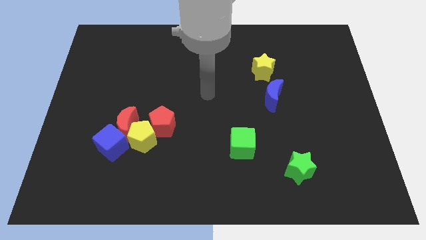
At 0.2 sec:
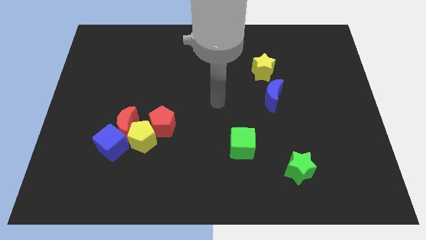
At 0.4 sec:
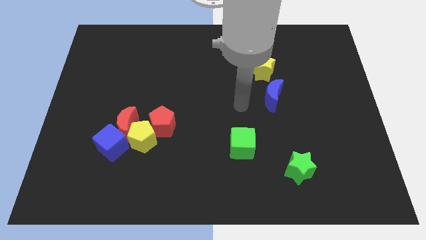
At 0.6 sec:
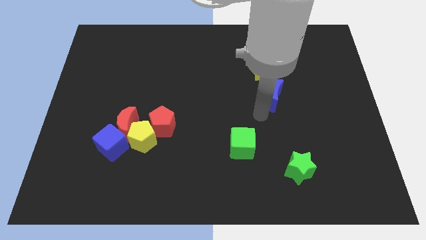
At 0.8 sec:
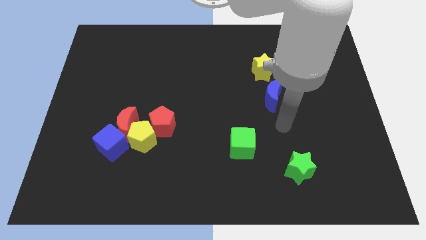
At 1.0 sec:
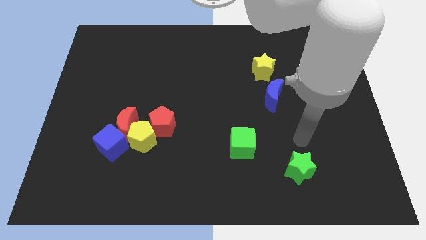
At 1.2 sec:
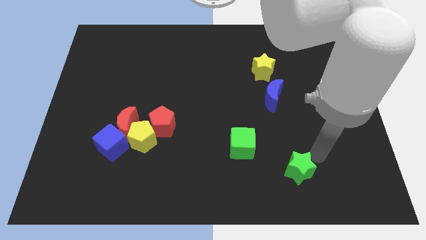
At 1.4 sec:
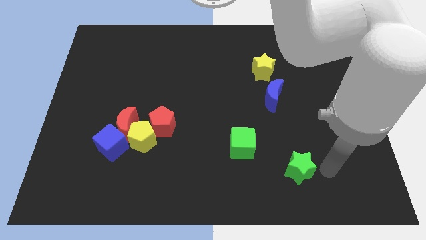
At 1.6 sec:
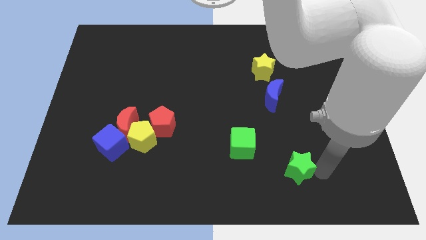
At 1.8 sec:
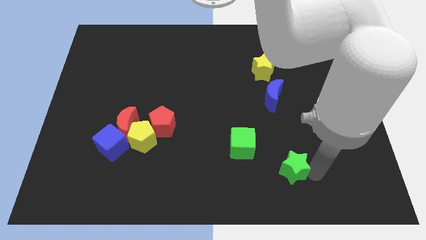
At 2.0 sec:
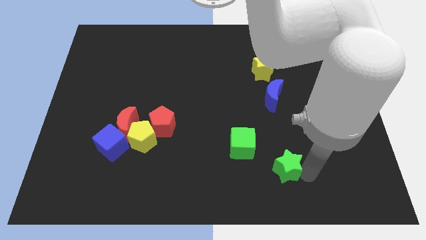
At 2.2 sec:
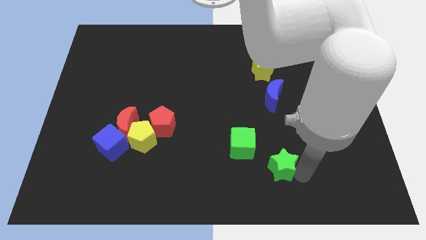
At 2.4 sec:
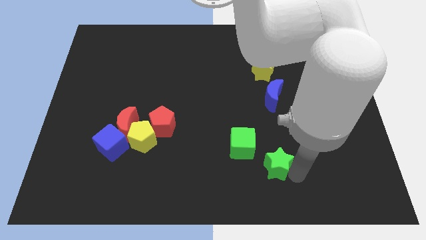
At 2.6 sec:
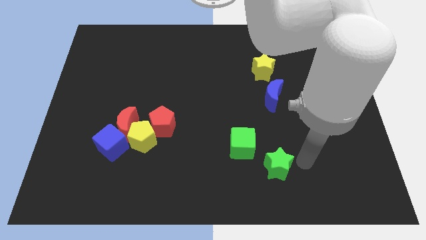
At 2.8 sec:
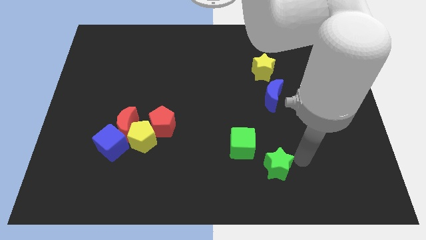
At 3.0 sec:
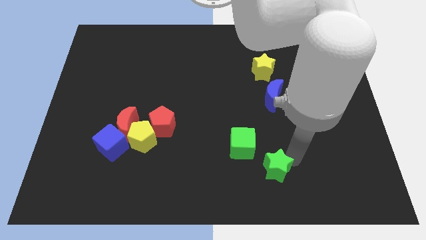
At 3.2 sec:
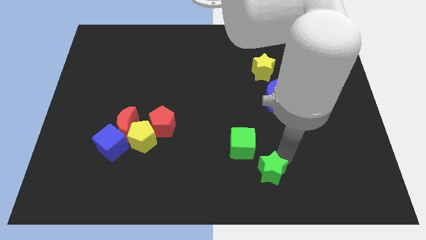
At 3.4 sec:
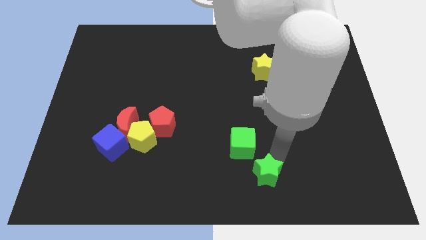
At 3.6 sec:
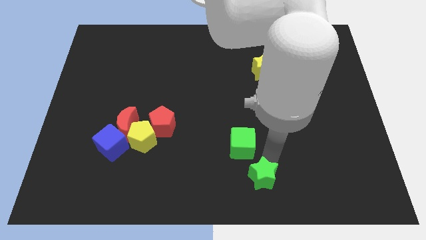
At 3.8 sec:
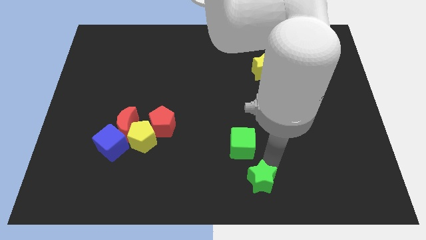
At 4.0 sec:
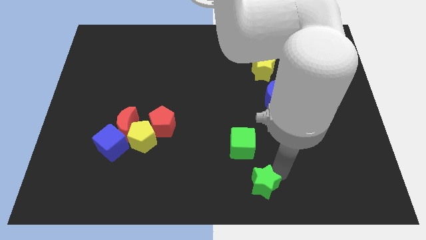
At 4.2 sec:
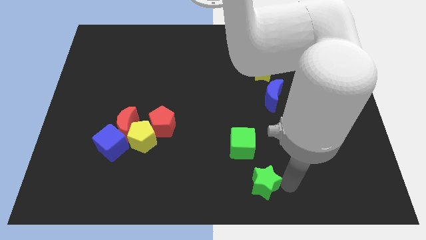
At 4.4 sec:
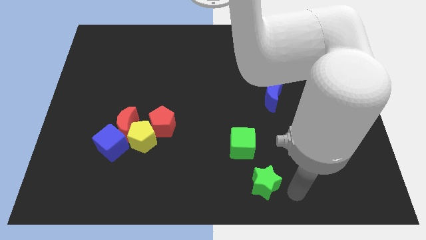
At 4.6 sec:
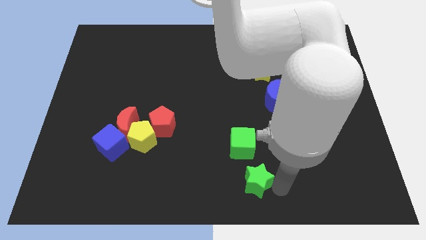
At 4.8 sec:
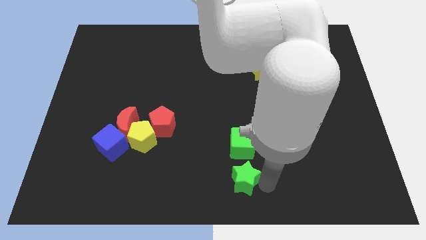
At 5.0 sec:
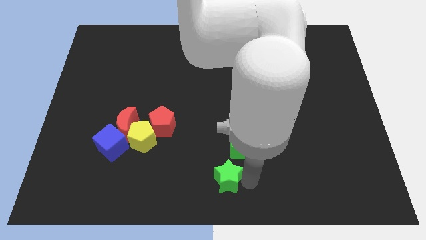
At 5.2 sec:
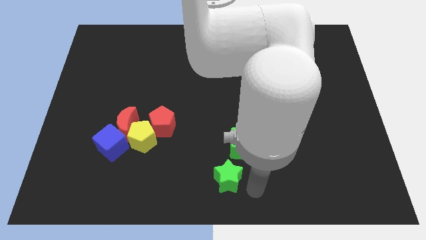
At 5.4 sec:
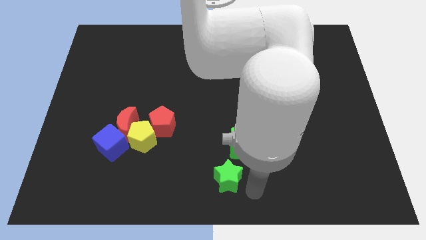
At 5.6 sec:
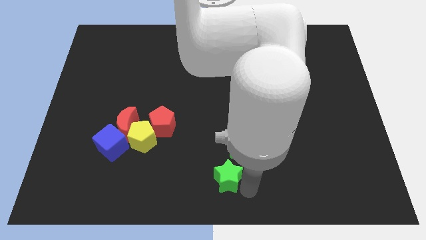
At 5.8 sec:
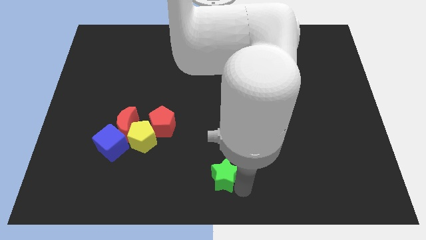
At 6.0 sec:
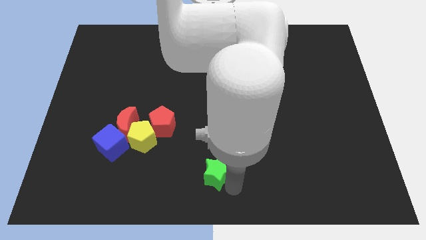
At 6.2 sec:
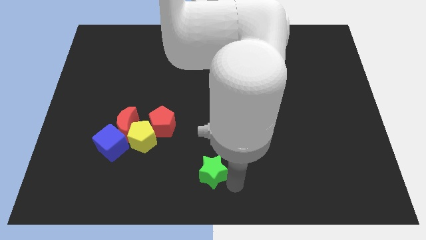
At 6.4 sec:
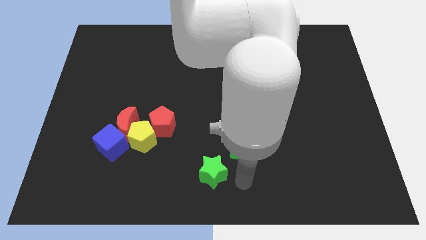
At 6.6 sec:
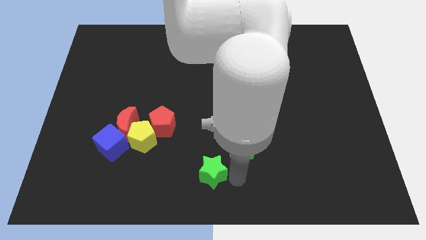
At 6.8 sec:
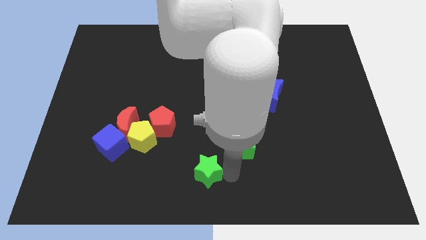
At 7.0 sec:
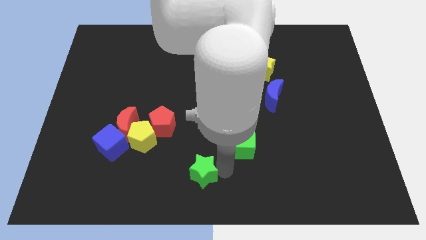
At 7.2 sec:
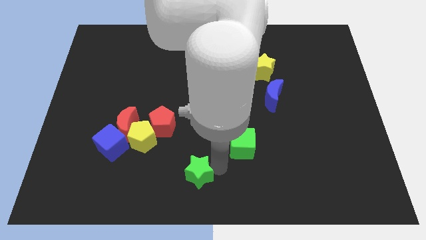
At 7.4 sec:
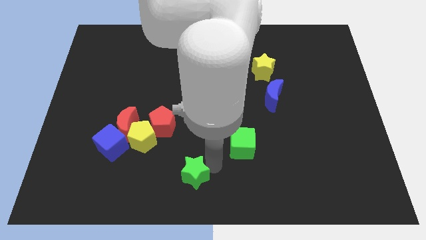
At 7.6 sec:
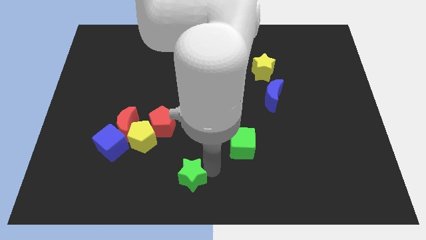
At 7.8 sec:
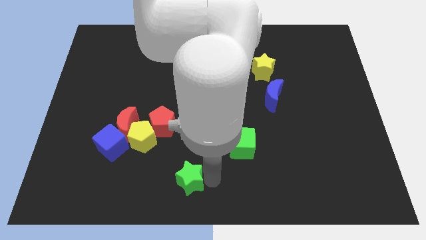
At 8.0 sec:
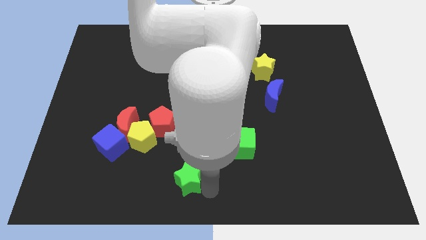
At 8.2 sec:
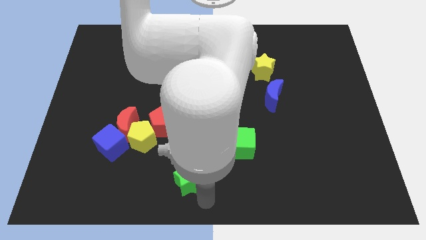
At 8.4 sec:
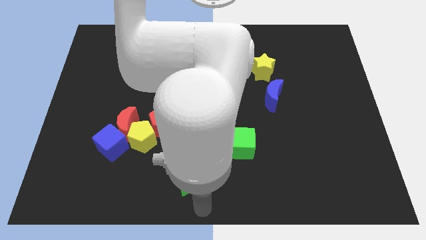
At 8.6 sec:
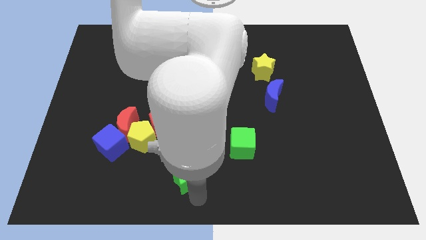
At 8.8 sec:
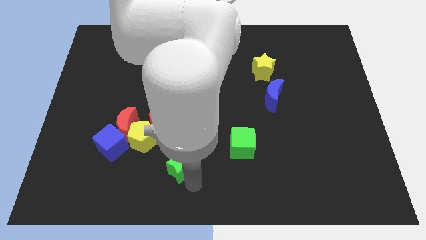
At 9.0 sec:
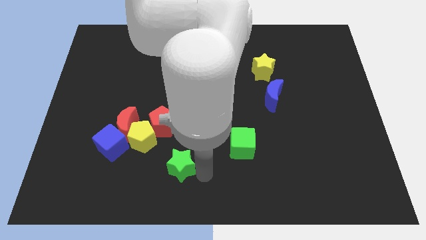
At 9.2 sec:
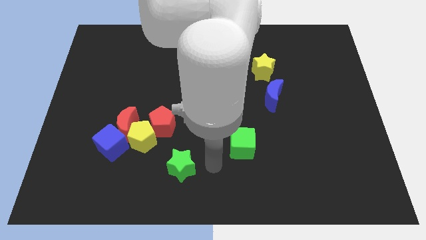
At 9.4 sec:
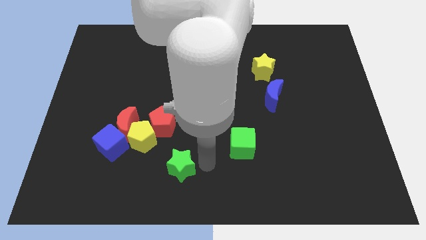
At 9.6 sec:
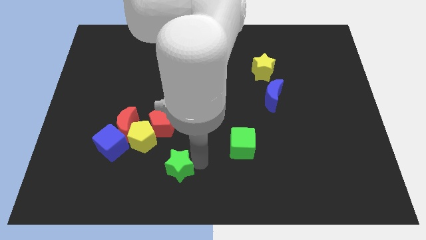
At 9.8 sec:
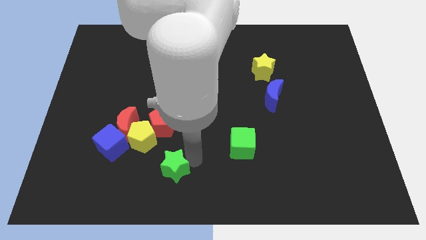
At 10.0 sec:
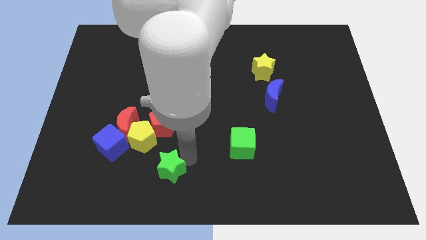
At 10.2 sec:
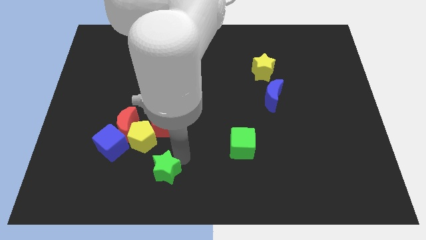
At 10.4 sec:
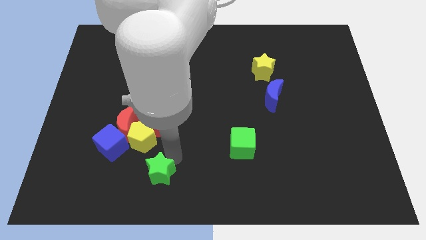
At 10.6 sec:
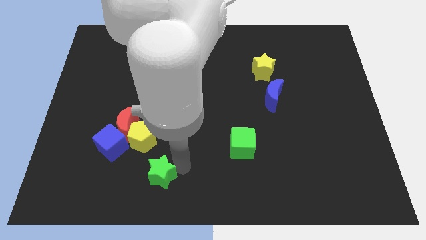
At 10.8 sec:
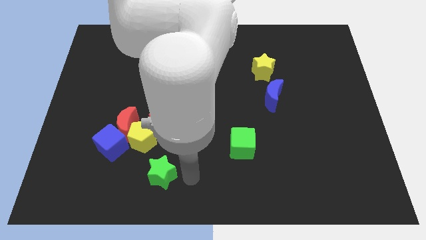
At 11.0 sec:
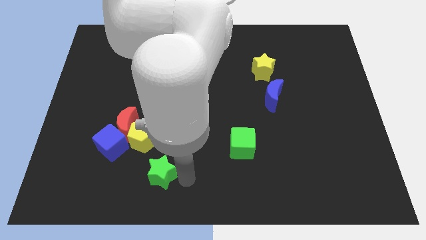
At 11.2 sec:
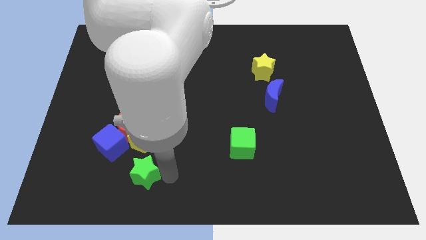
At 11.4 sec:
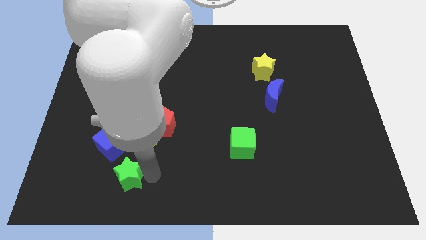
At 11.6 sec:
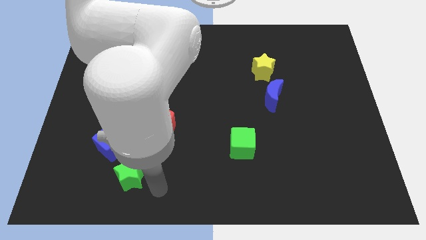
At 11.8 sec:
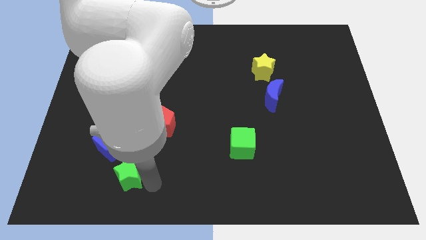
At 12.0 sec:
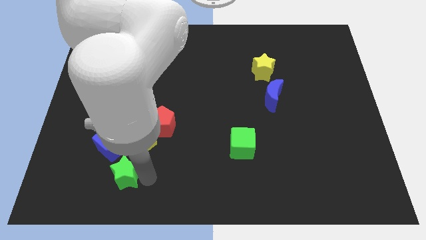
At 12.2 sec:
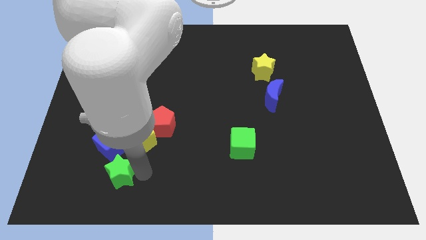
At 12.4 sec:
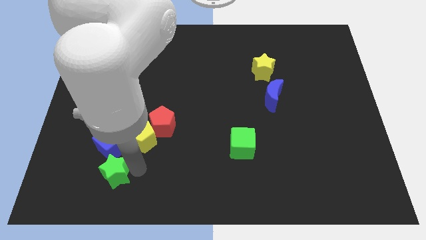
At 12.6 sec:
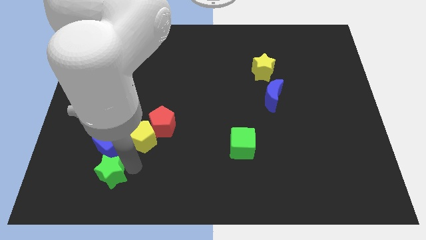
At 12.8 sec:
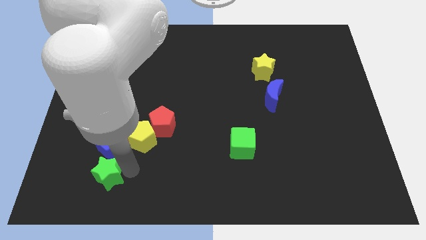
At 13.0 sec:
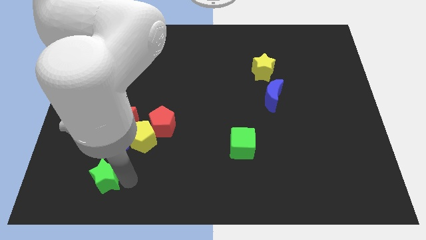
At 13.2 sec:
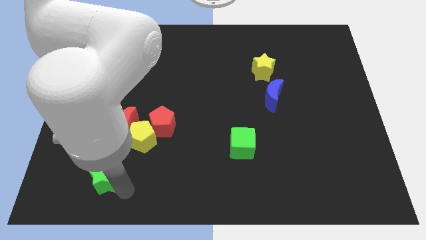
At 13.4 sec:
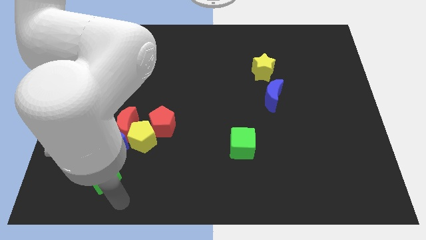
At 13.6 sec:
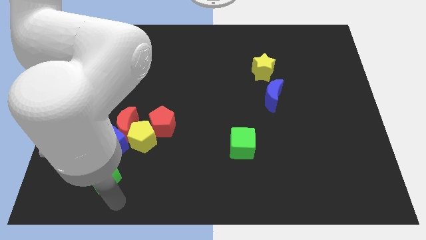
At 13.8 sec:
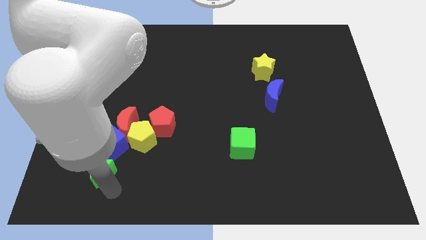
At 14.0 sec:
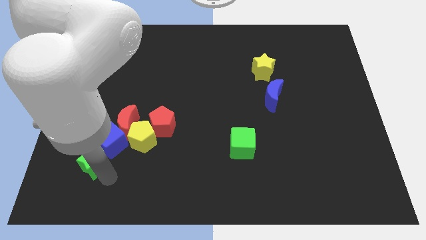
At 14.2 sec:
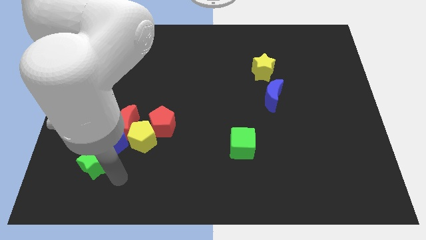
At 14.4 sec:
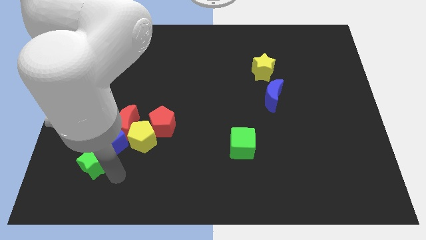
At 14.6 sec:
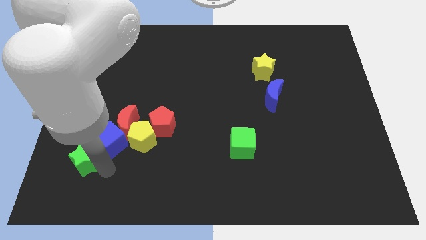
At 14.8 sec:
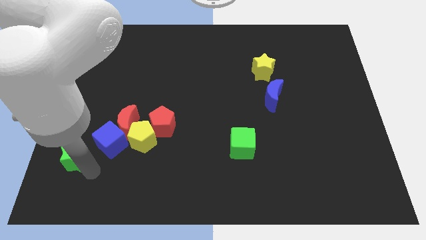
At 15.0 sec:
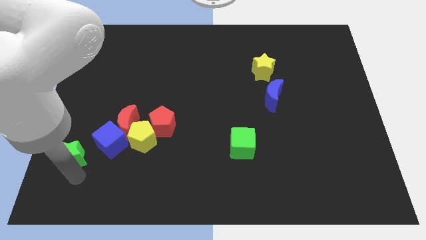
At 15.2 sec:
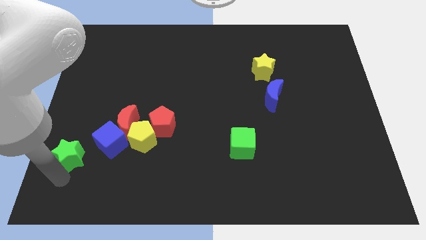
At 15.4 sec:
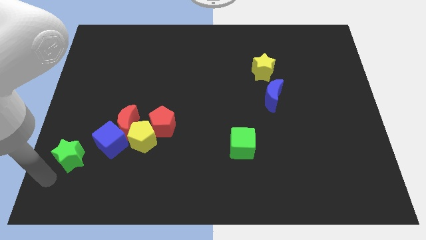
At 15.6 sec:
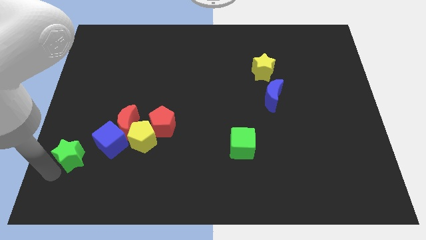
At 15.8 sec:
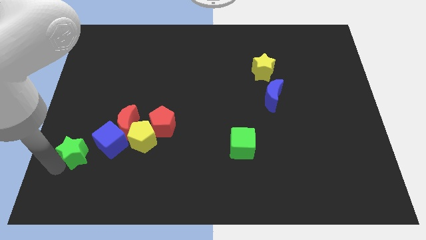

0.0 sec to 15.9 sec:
move the green star just left of the yellow pentagon
